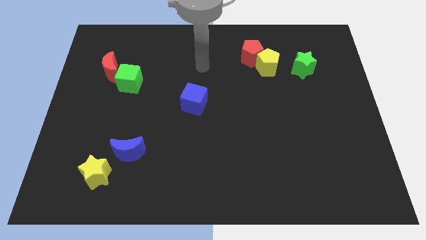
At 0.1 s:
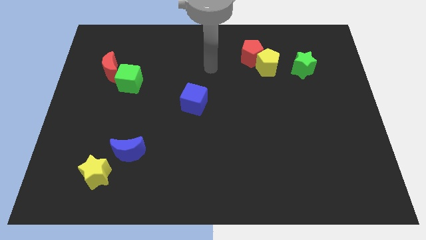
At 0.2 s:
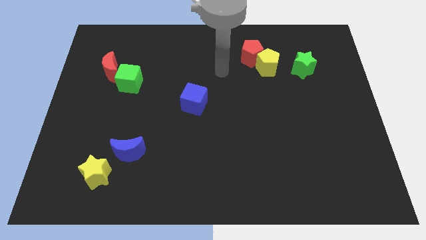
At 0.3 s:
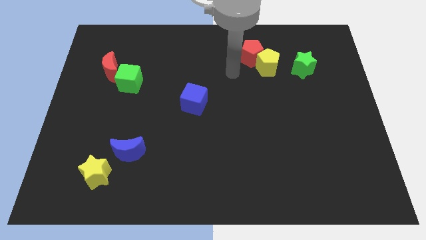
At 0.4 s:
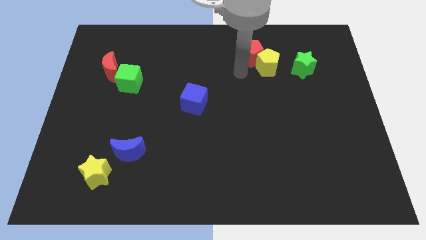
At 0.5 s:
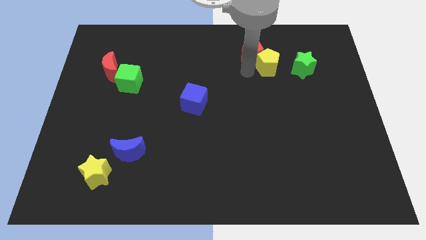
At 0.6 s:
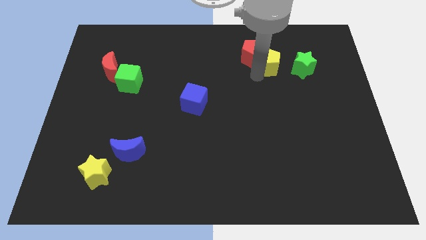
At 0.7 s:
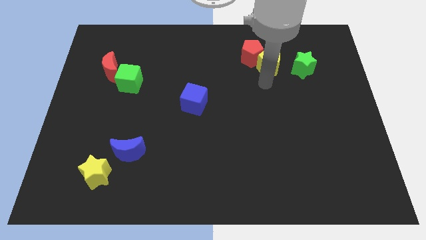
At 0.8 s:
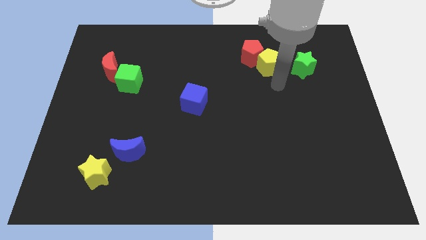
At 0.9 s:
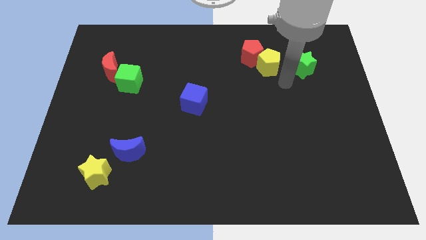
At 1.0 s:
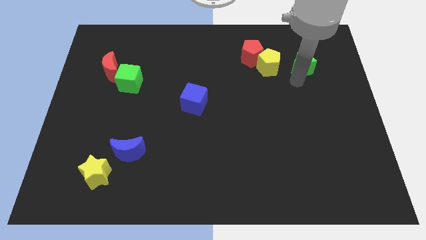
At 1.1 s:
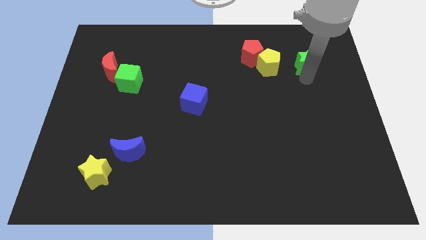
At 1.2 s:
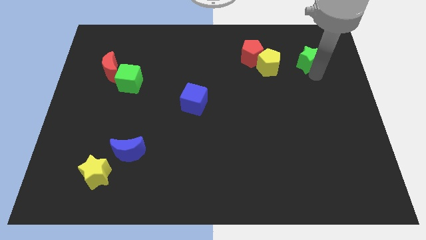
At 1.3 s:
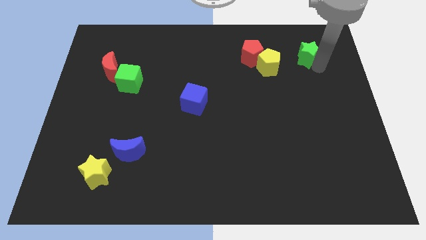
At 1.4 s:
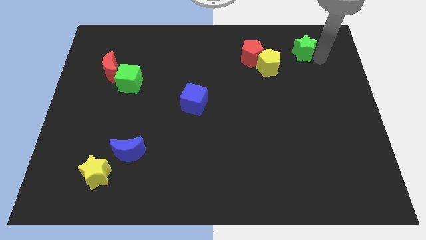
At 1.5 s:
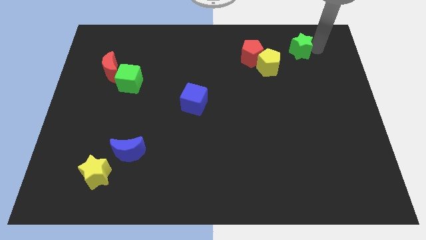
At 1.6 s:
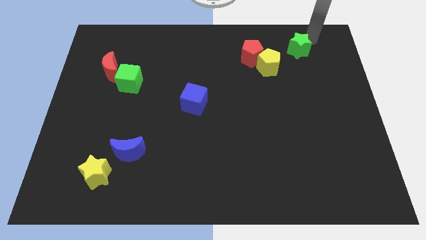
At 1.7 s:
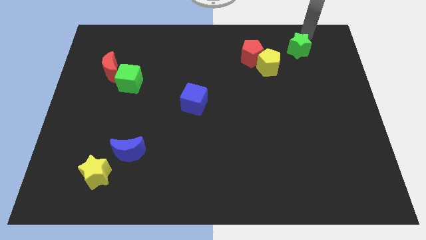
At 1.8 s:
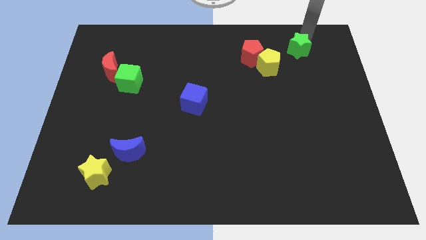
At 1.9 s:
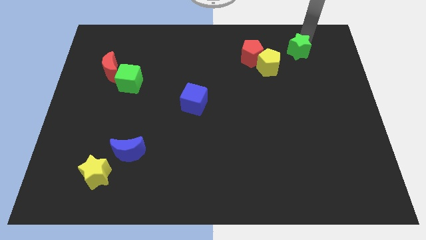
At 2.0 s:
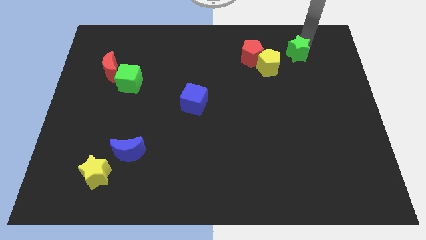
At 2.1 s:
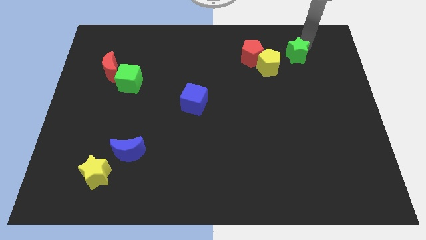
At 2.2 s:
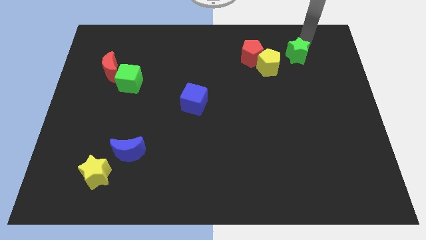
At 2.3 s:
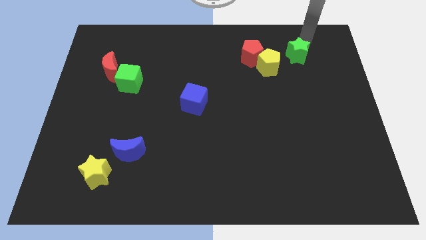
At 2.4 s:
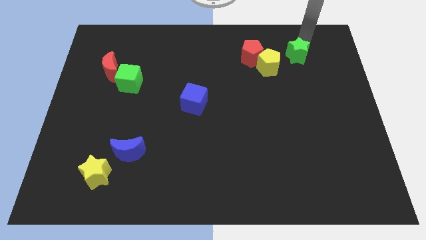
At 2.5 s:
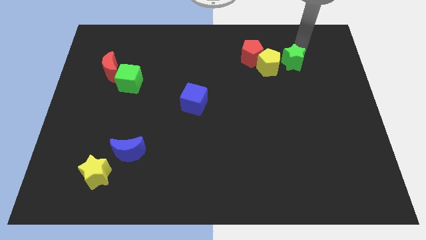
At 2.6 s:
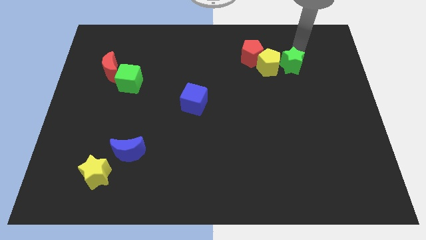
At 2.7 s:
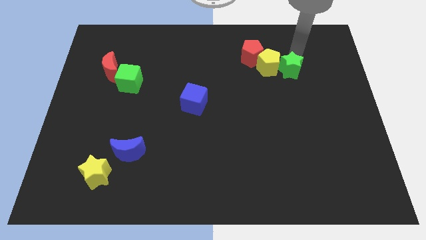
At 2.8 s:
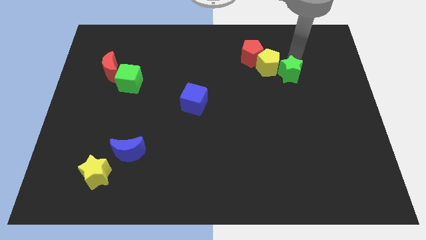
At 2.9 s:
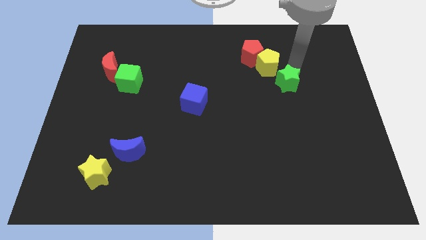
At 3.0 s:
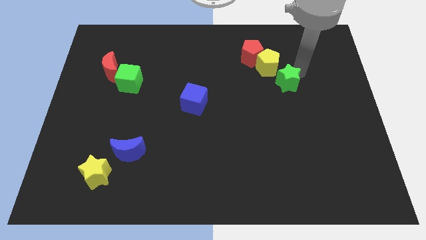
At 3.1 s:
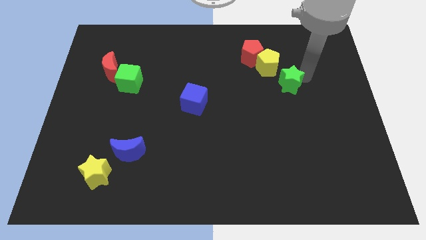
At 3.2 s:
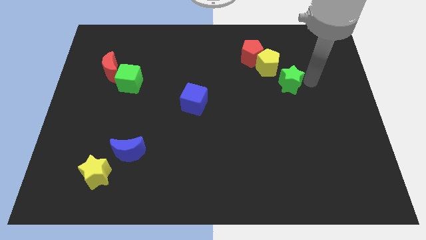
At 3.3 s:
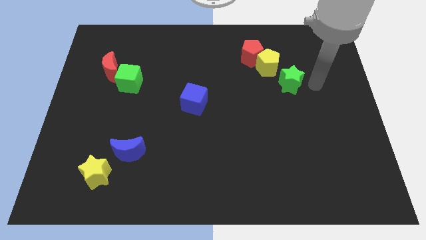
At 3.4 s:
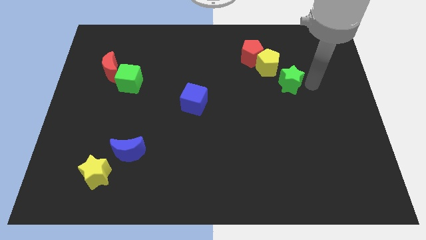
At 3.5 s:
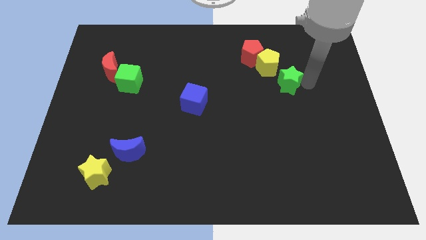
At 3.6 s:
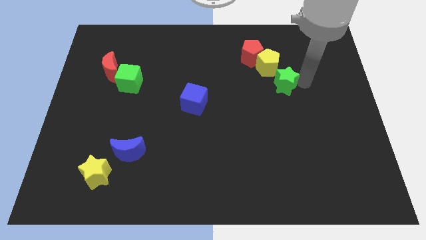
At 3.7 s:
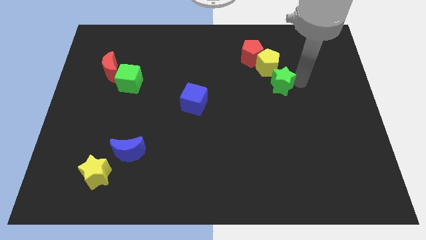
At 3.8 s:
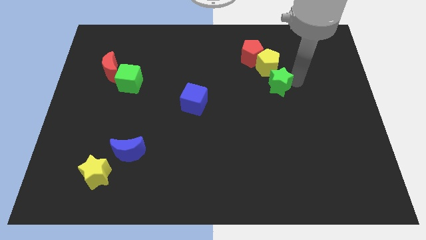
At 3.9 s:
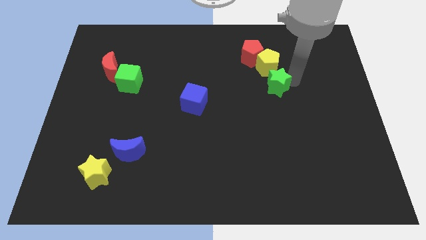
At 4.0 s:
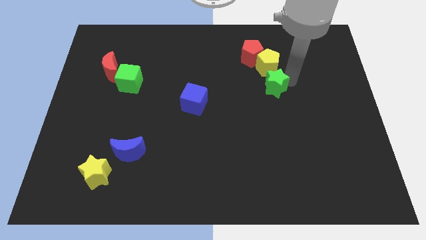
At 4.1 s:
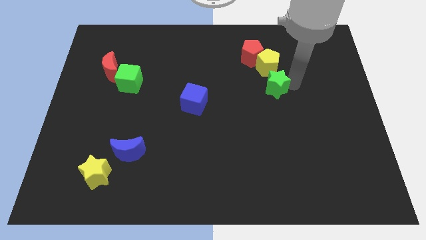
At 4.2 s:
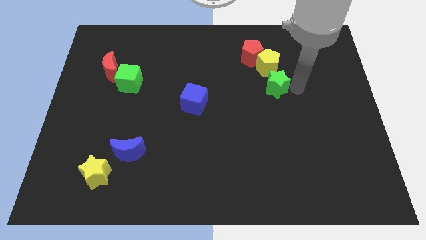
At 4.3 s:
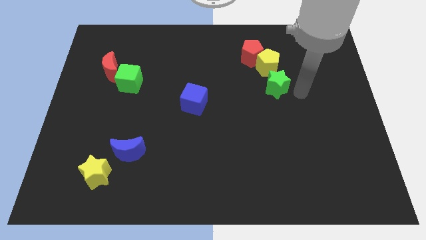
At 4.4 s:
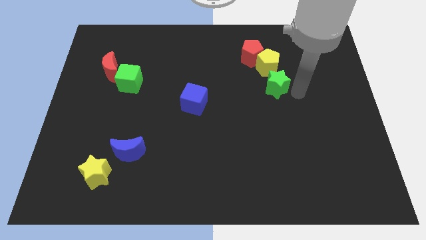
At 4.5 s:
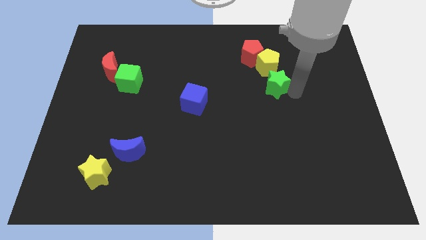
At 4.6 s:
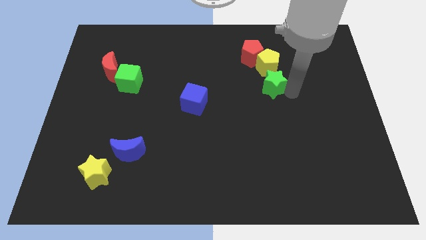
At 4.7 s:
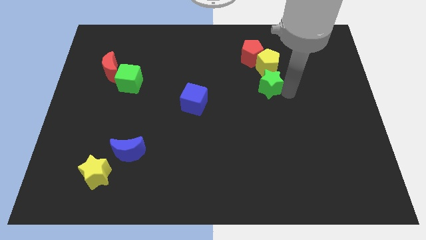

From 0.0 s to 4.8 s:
push the green star diagonally down and to the left of the yellow pentagon

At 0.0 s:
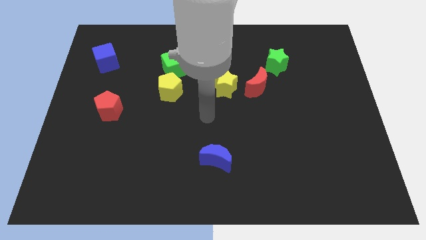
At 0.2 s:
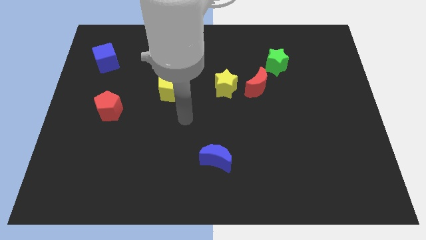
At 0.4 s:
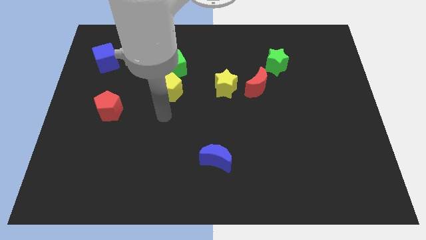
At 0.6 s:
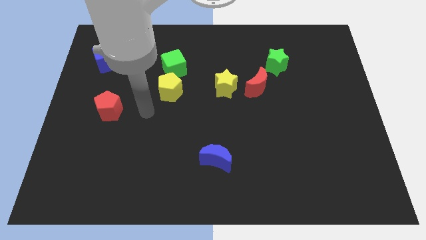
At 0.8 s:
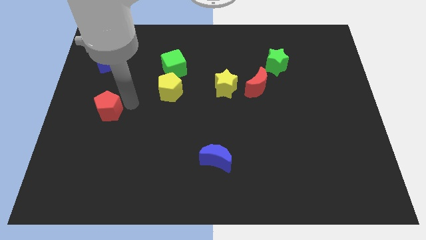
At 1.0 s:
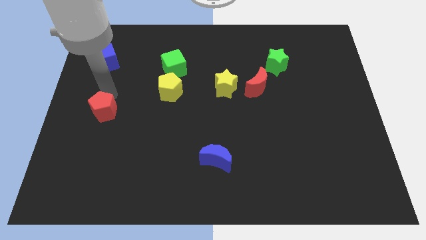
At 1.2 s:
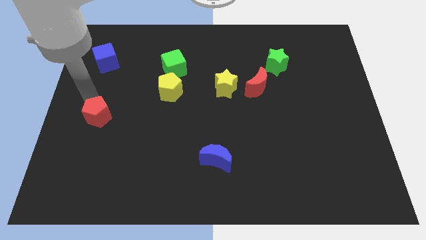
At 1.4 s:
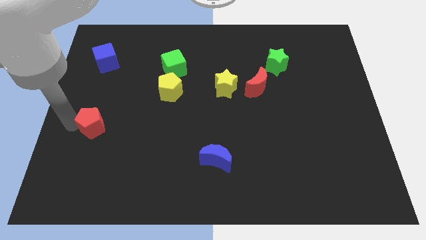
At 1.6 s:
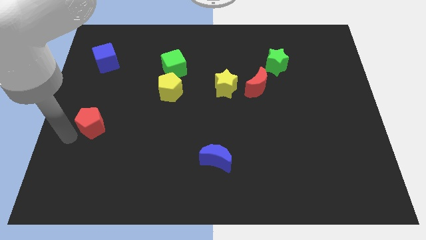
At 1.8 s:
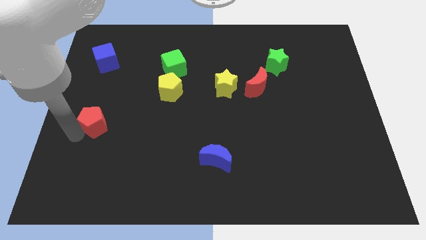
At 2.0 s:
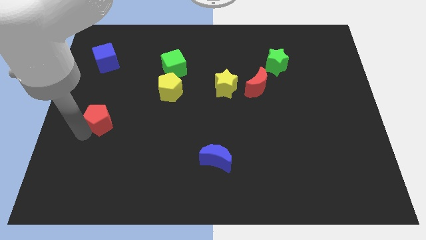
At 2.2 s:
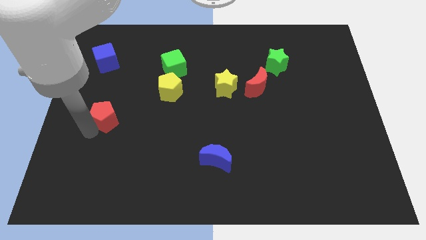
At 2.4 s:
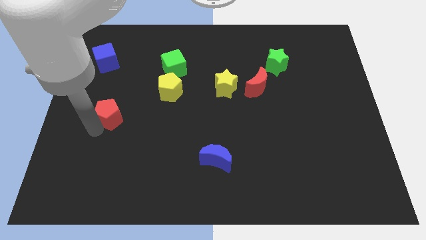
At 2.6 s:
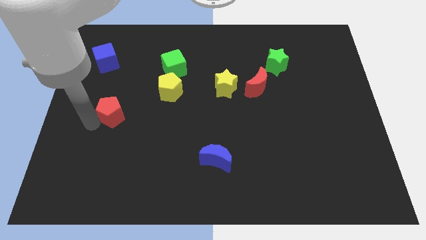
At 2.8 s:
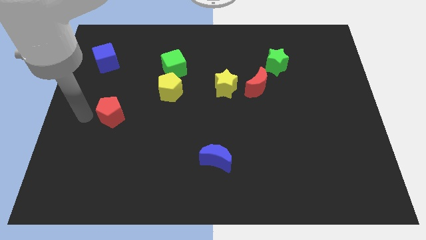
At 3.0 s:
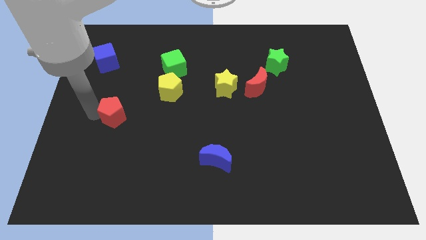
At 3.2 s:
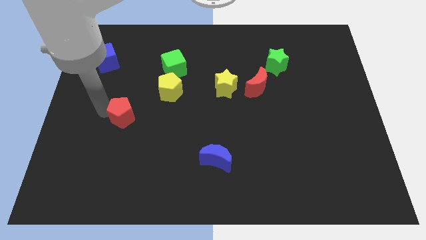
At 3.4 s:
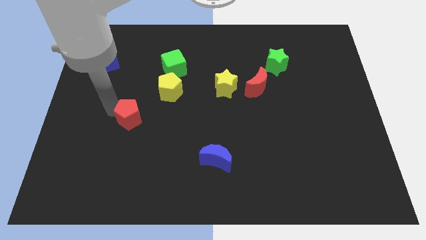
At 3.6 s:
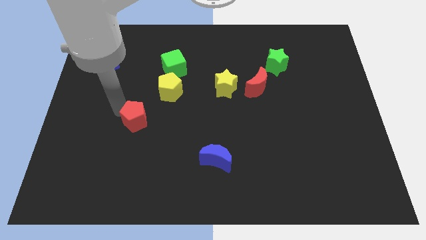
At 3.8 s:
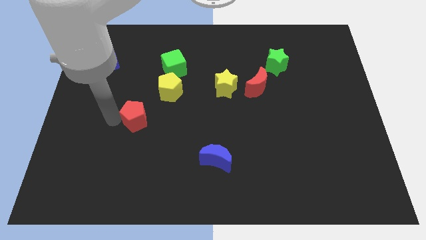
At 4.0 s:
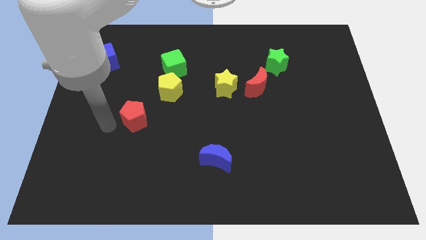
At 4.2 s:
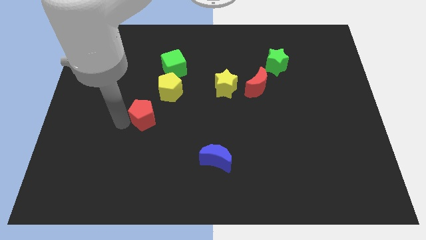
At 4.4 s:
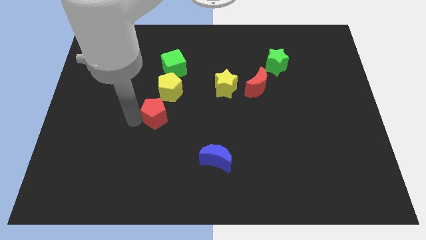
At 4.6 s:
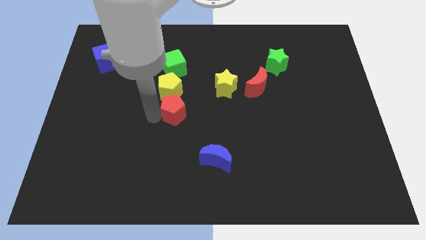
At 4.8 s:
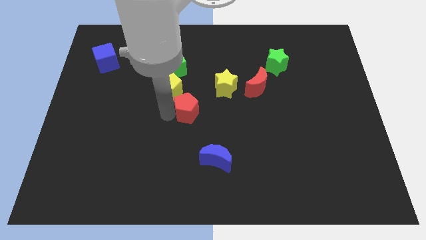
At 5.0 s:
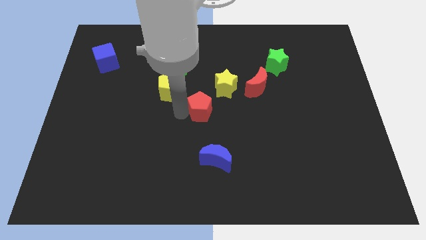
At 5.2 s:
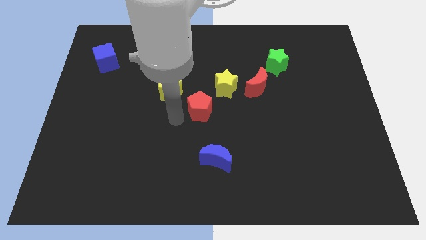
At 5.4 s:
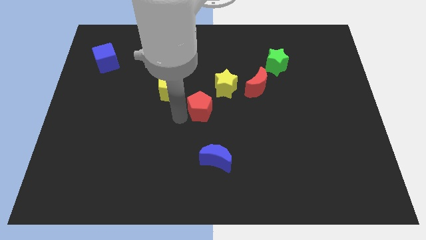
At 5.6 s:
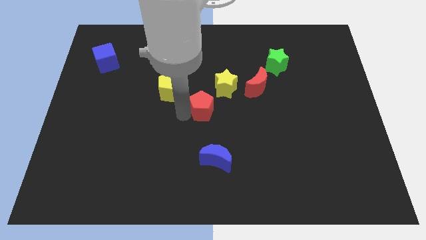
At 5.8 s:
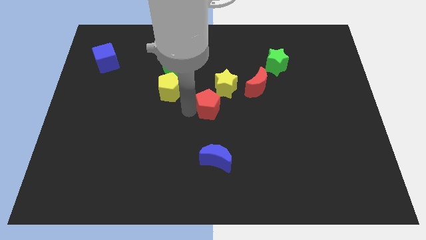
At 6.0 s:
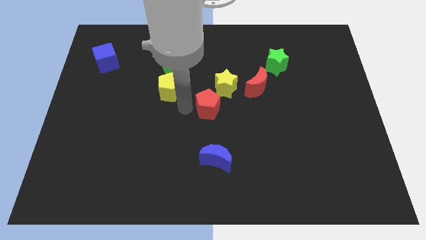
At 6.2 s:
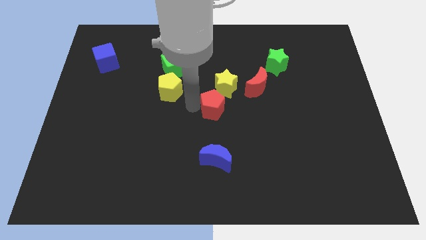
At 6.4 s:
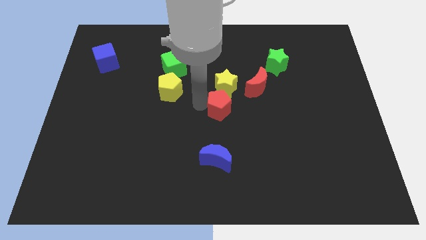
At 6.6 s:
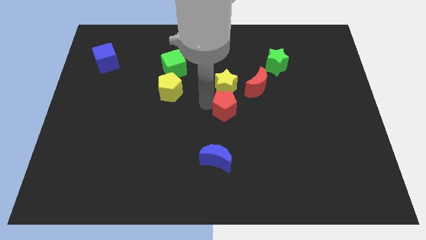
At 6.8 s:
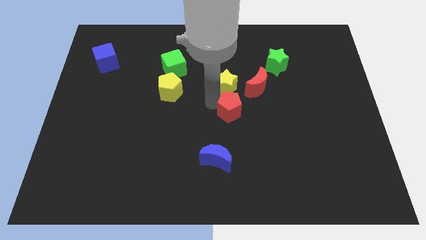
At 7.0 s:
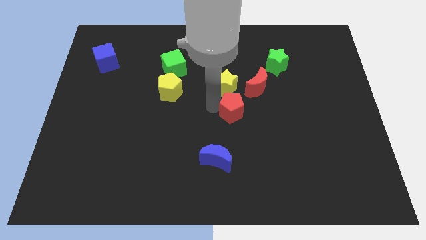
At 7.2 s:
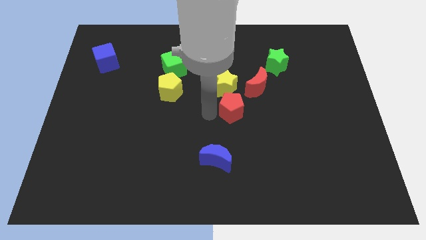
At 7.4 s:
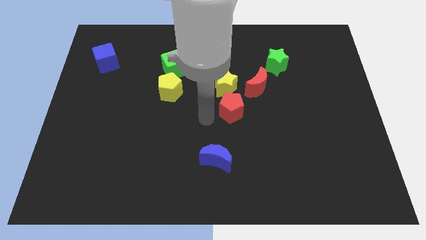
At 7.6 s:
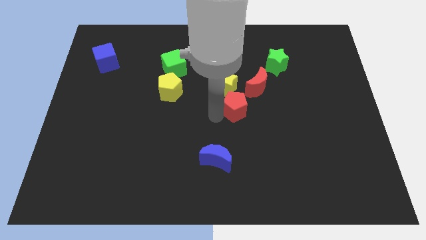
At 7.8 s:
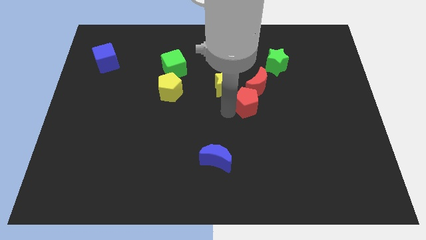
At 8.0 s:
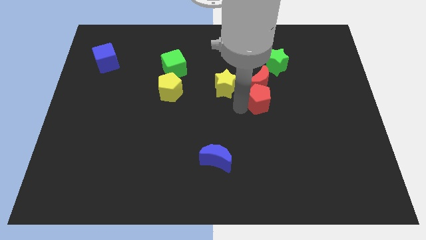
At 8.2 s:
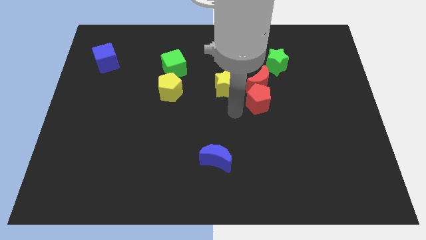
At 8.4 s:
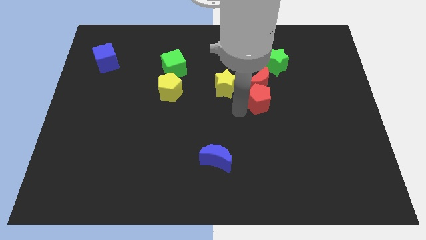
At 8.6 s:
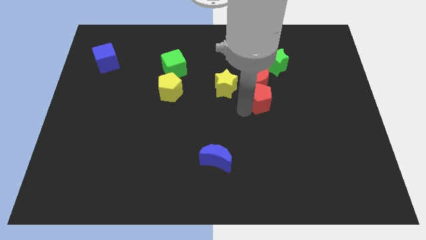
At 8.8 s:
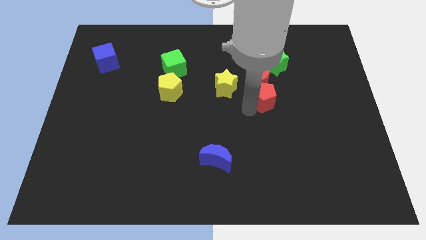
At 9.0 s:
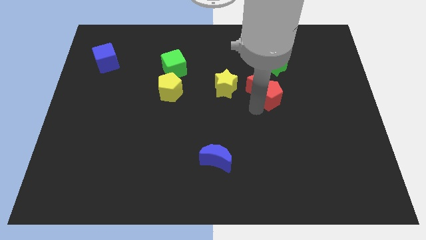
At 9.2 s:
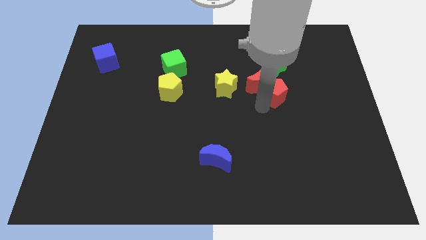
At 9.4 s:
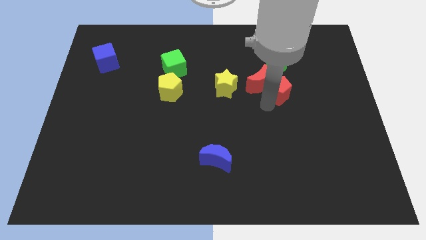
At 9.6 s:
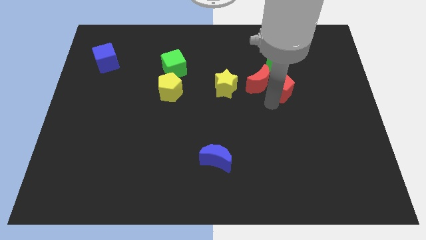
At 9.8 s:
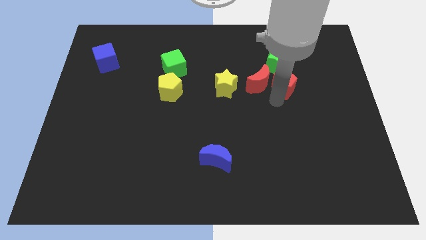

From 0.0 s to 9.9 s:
slide the red pentagon diagonally down and to the right of the green star
